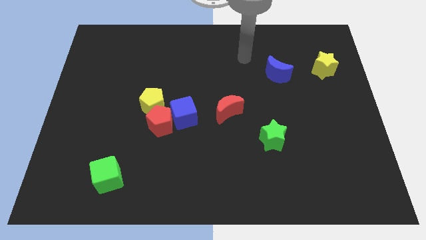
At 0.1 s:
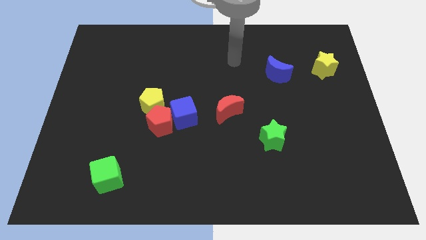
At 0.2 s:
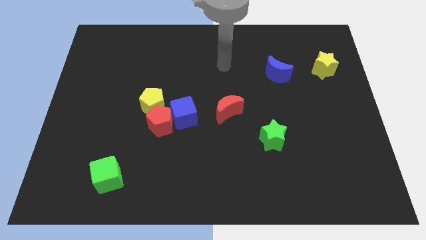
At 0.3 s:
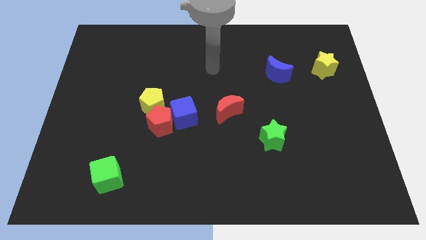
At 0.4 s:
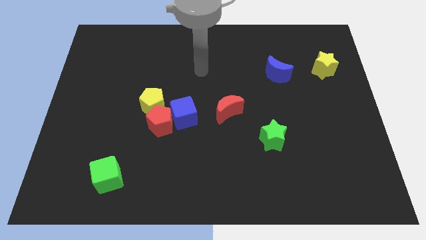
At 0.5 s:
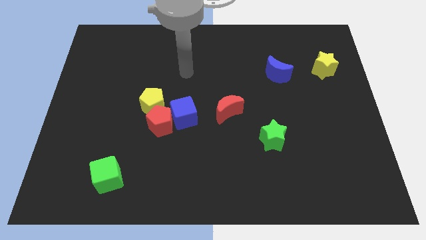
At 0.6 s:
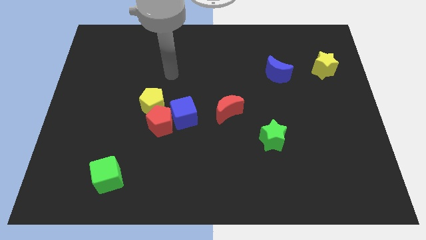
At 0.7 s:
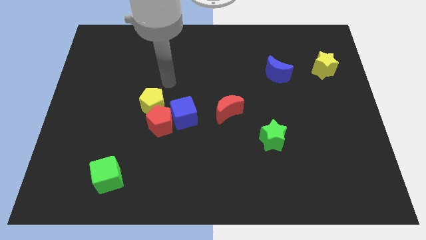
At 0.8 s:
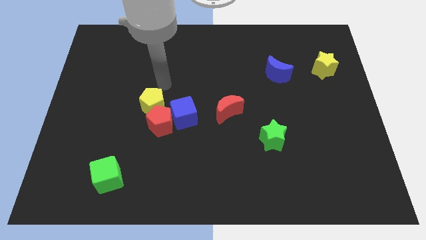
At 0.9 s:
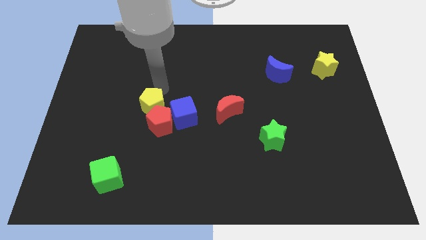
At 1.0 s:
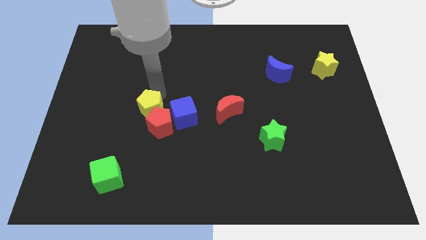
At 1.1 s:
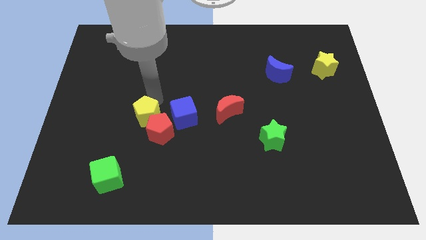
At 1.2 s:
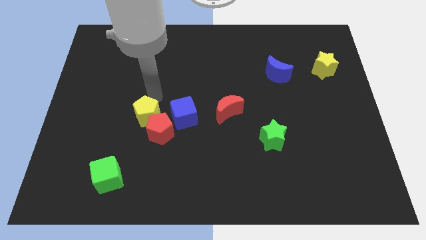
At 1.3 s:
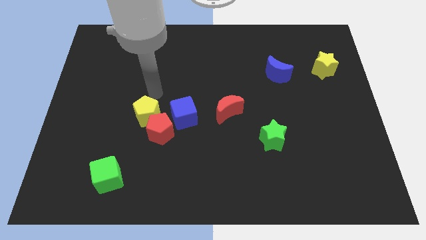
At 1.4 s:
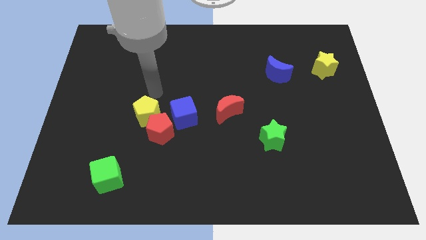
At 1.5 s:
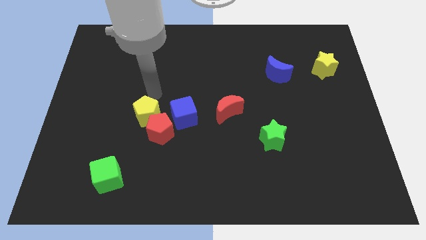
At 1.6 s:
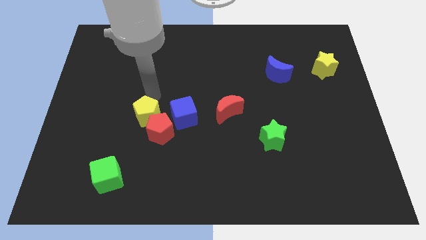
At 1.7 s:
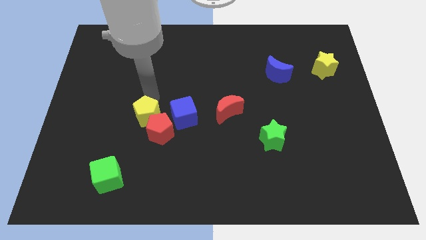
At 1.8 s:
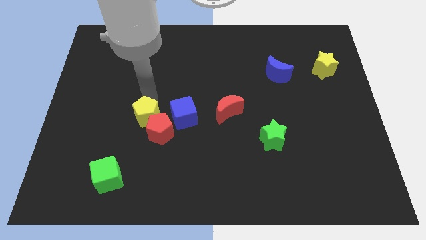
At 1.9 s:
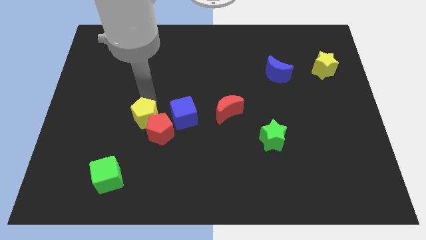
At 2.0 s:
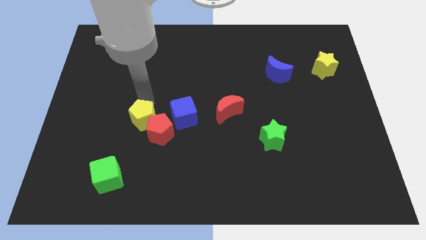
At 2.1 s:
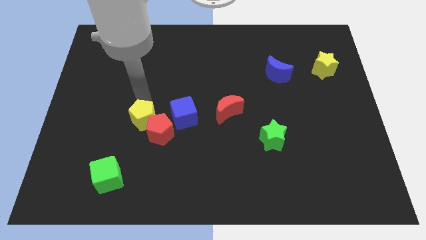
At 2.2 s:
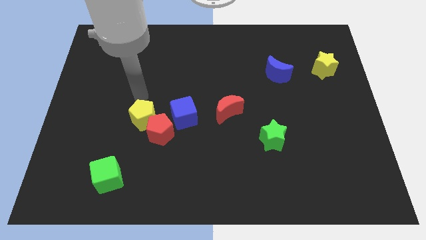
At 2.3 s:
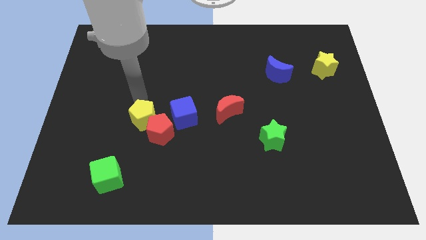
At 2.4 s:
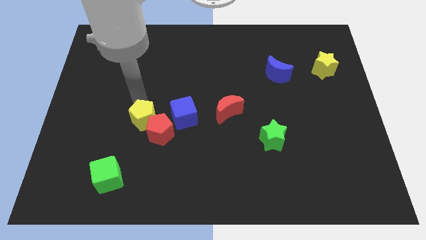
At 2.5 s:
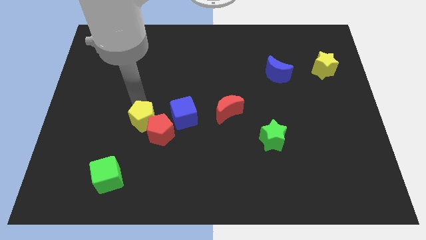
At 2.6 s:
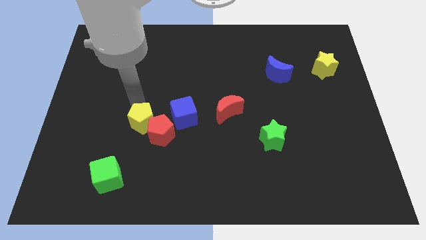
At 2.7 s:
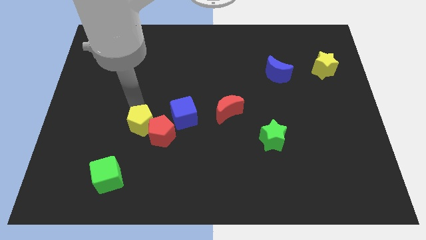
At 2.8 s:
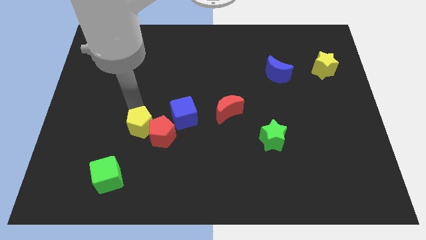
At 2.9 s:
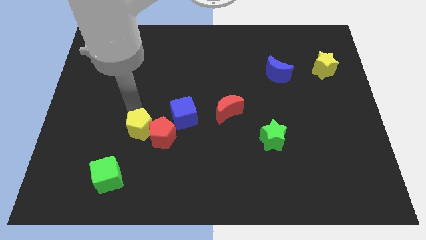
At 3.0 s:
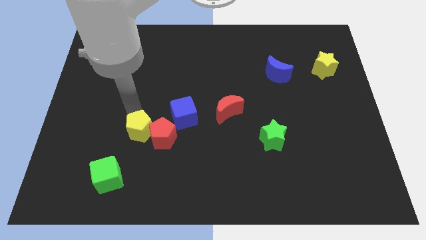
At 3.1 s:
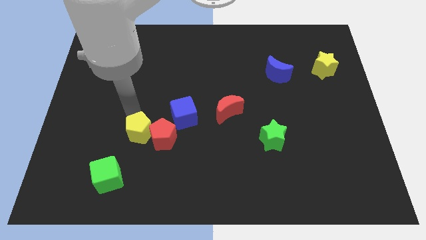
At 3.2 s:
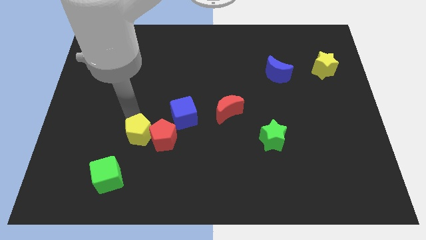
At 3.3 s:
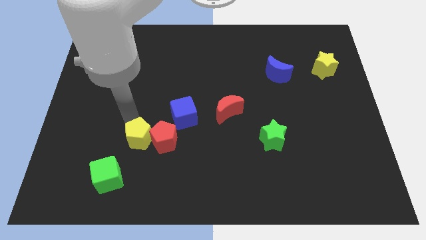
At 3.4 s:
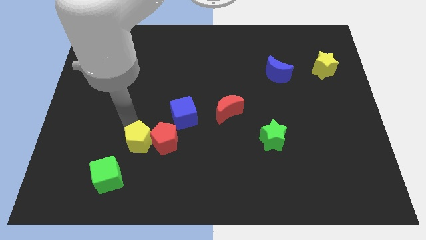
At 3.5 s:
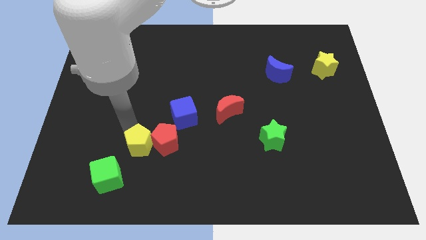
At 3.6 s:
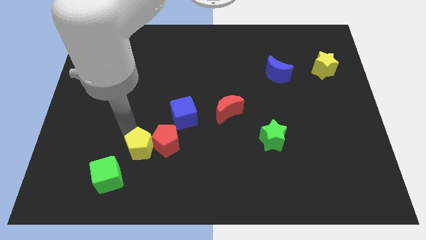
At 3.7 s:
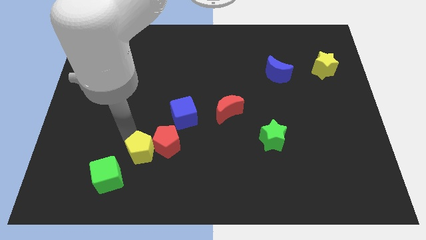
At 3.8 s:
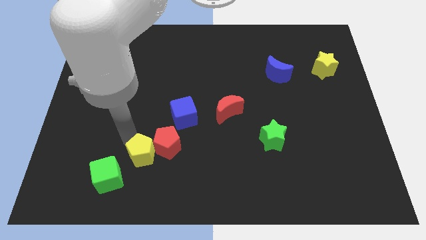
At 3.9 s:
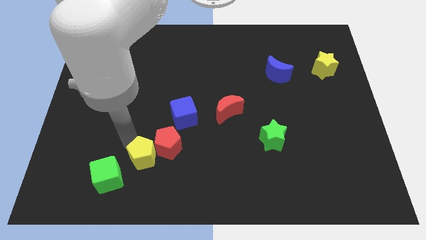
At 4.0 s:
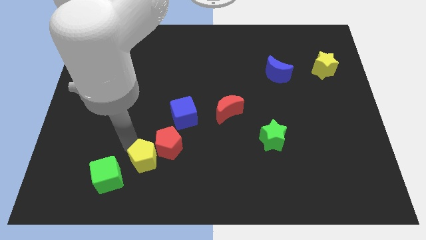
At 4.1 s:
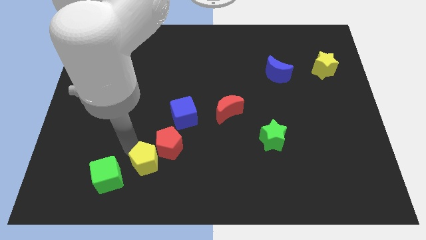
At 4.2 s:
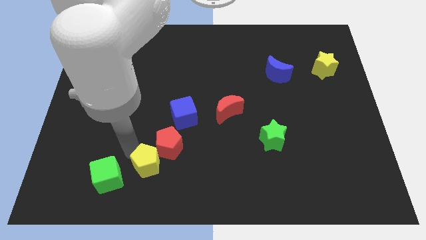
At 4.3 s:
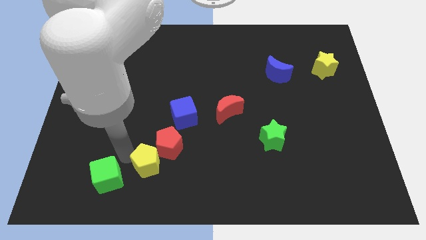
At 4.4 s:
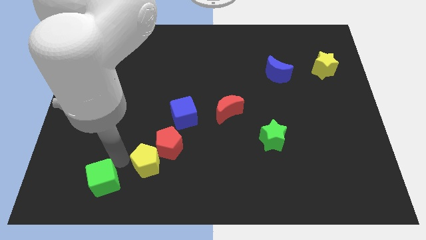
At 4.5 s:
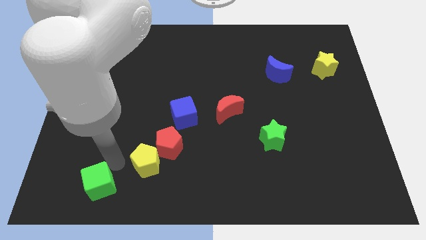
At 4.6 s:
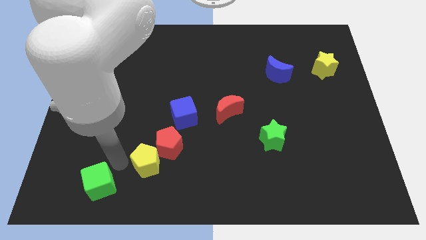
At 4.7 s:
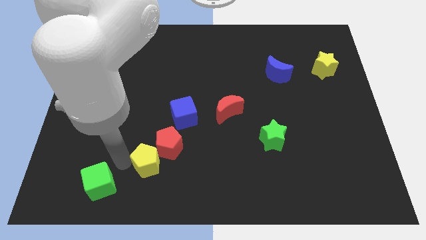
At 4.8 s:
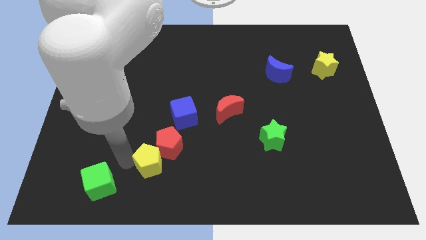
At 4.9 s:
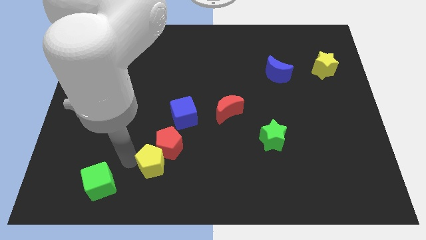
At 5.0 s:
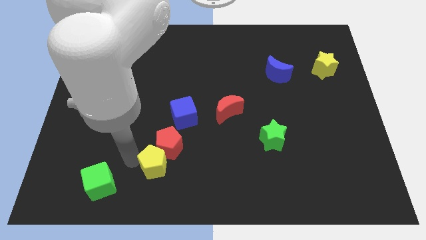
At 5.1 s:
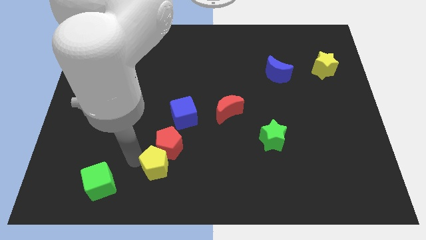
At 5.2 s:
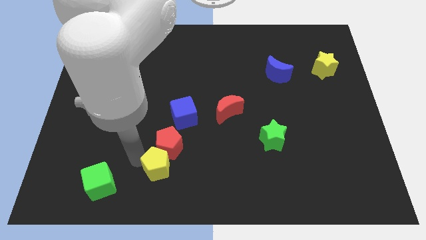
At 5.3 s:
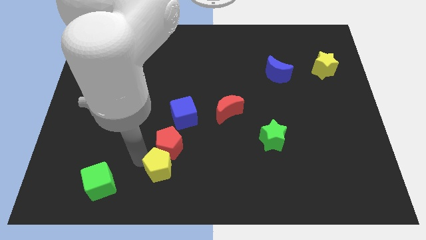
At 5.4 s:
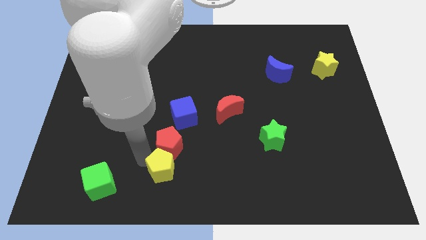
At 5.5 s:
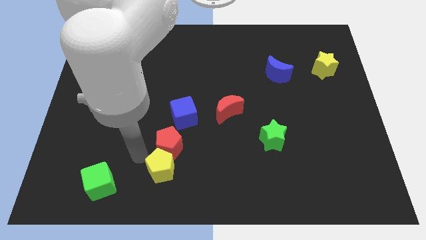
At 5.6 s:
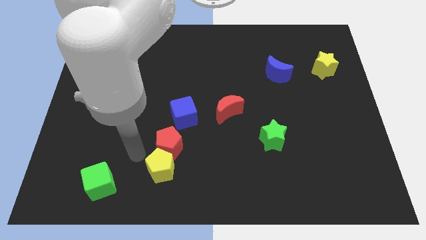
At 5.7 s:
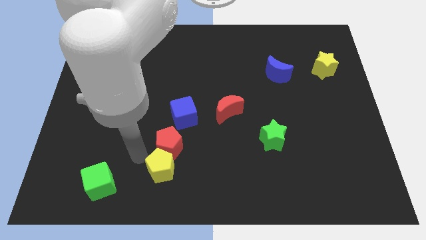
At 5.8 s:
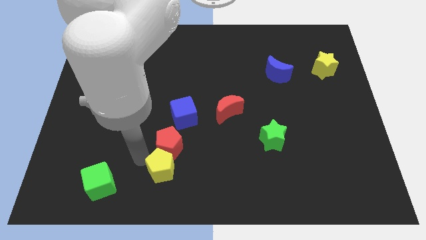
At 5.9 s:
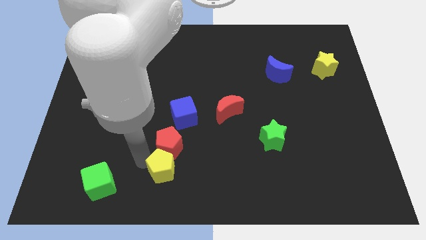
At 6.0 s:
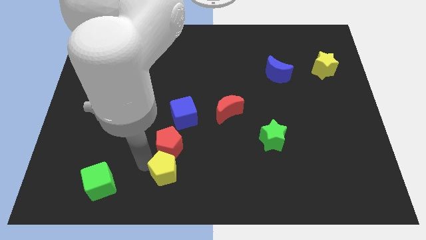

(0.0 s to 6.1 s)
put the yellow pentagon to the bottom
